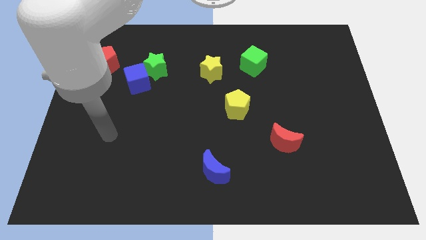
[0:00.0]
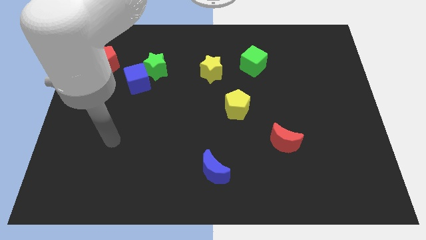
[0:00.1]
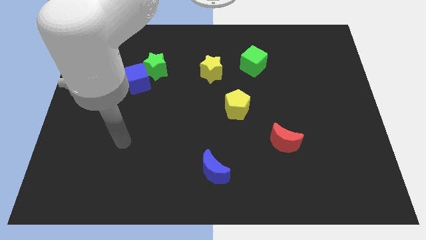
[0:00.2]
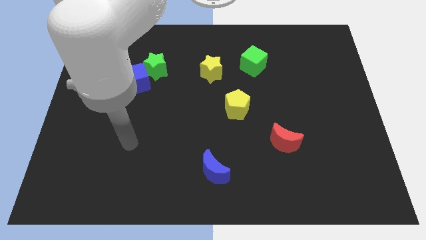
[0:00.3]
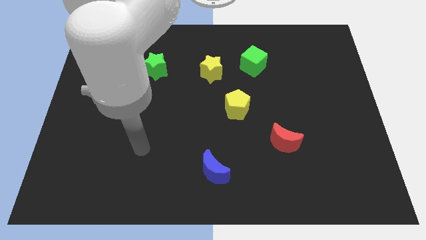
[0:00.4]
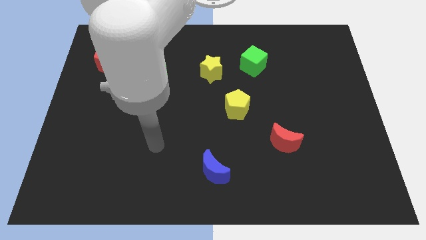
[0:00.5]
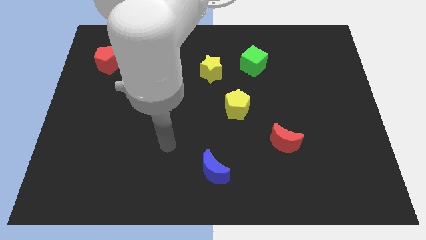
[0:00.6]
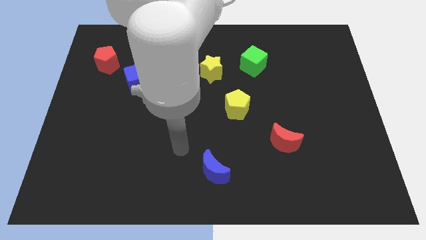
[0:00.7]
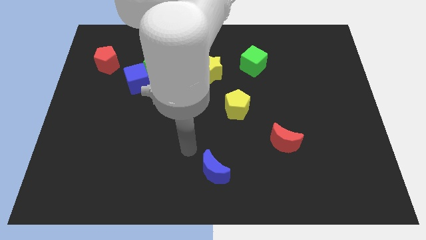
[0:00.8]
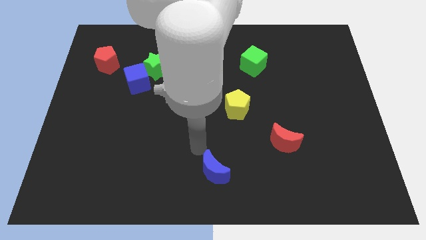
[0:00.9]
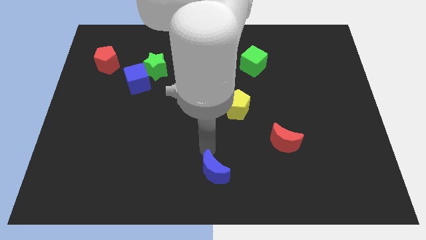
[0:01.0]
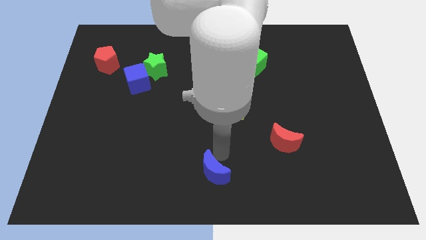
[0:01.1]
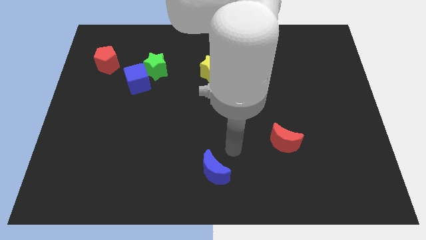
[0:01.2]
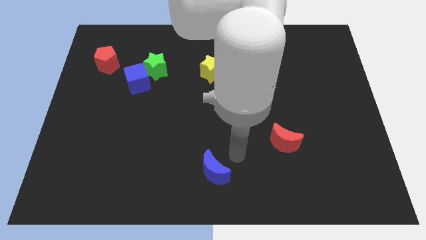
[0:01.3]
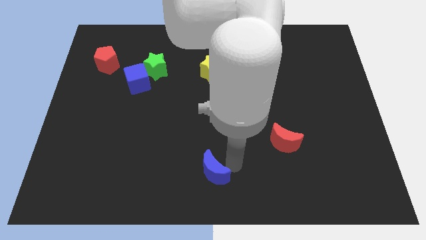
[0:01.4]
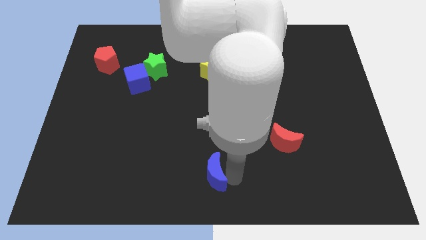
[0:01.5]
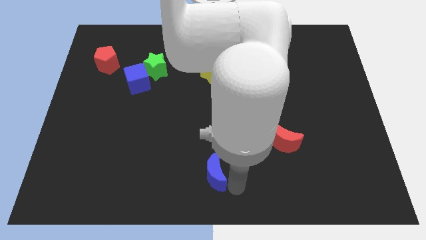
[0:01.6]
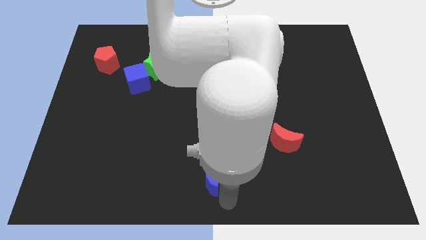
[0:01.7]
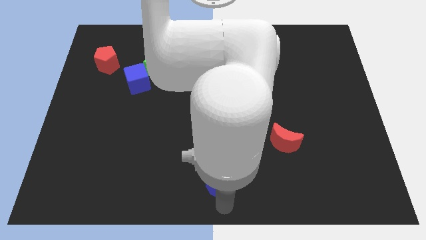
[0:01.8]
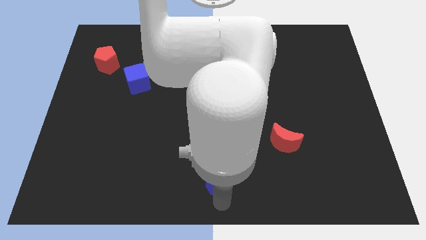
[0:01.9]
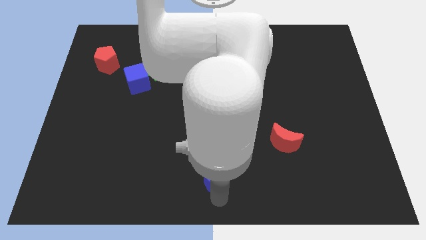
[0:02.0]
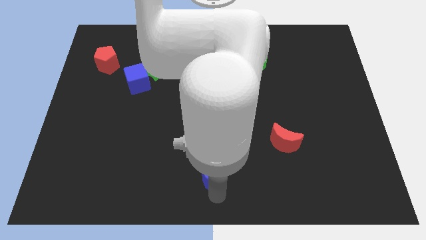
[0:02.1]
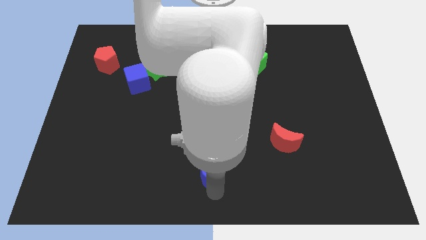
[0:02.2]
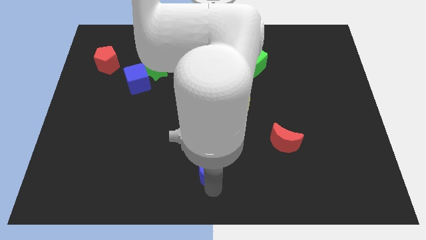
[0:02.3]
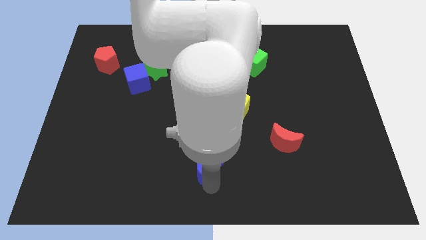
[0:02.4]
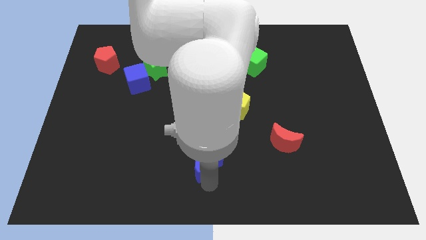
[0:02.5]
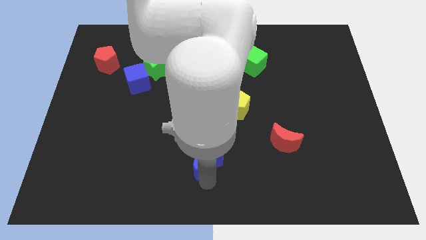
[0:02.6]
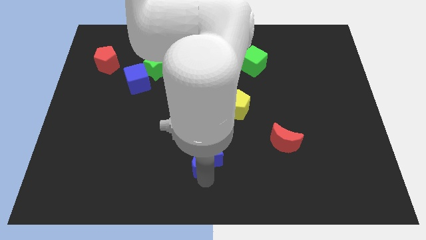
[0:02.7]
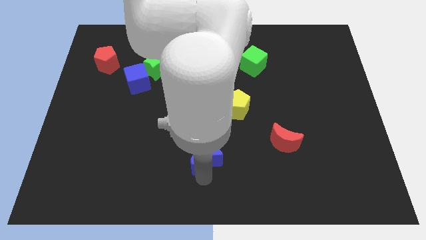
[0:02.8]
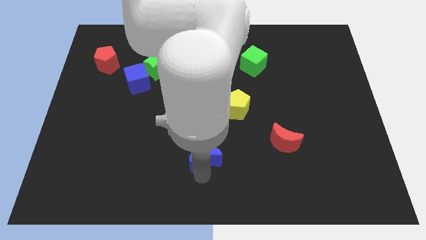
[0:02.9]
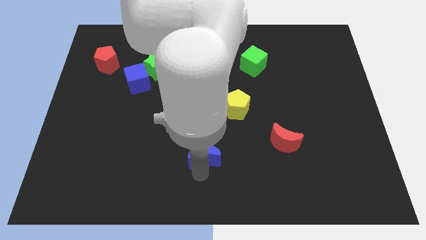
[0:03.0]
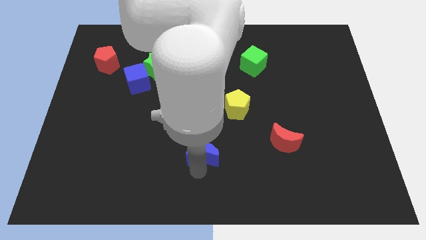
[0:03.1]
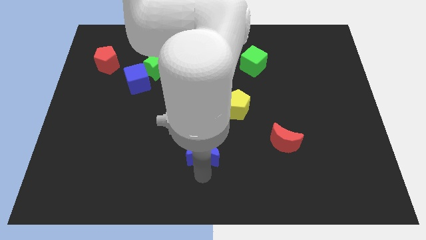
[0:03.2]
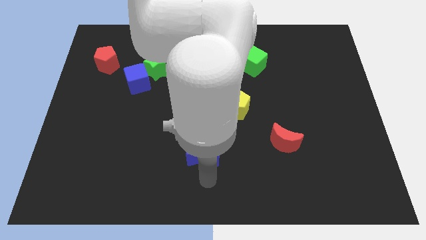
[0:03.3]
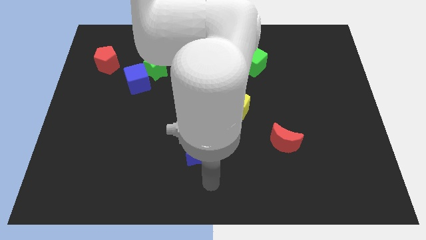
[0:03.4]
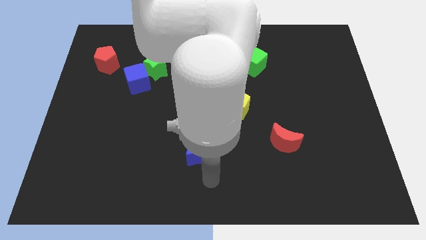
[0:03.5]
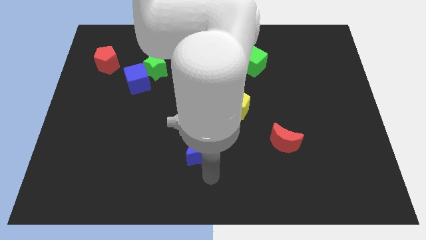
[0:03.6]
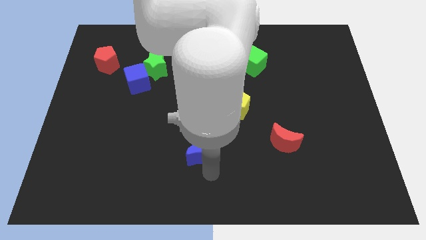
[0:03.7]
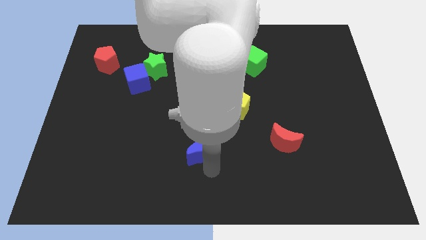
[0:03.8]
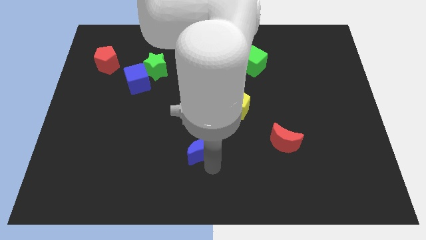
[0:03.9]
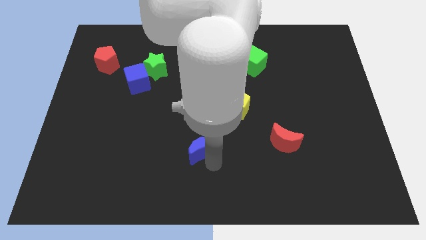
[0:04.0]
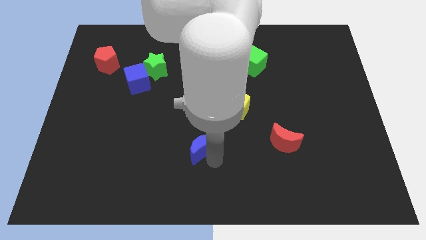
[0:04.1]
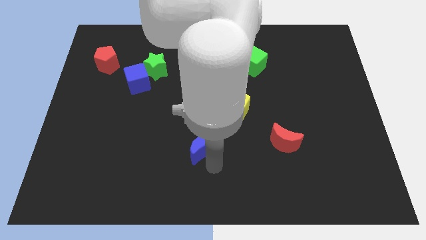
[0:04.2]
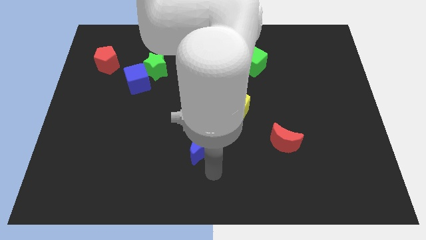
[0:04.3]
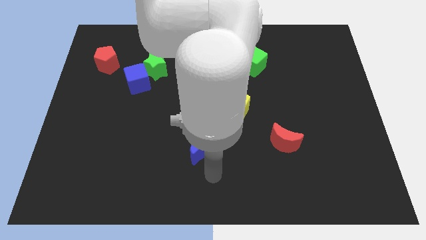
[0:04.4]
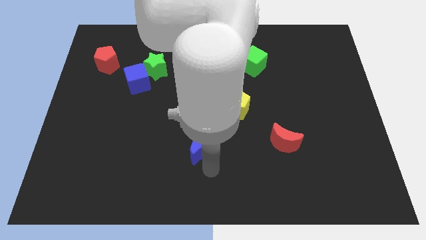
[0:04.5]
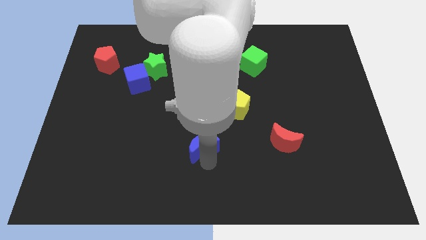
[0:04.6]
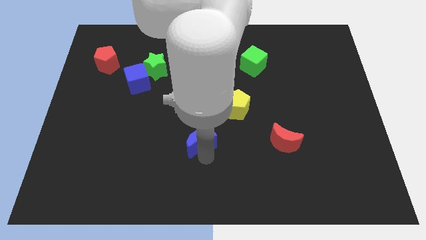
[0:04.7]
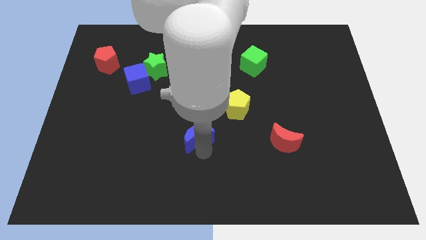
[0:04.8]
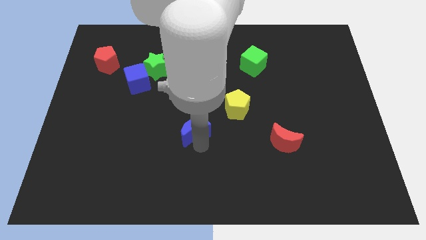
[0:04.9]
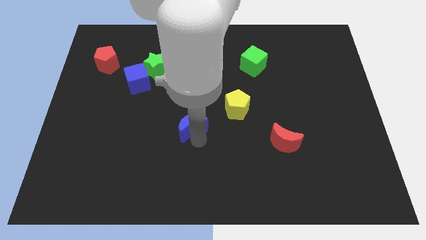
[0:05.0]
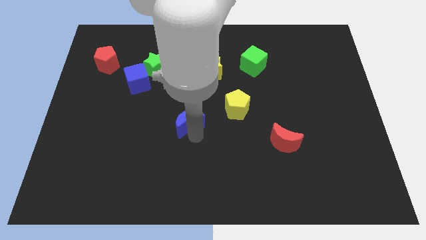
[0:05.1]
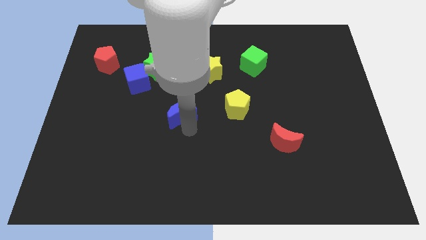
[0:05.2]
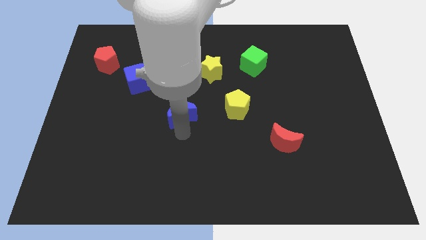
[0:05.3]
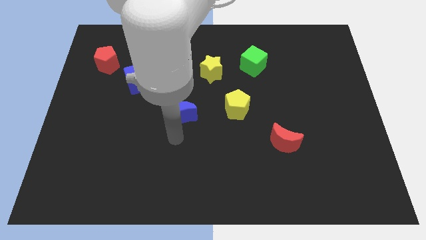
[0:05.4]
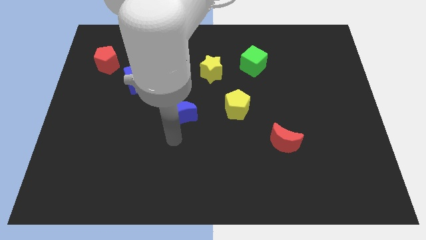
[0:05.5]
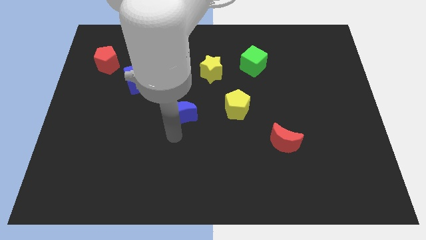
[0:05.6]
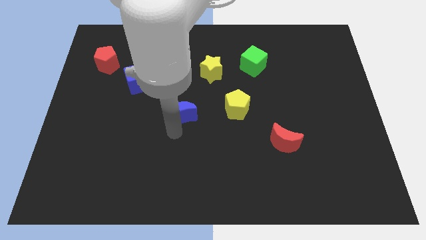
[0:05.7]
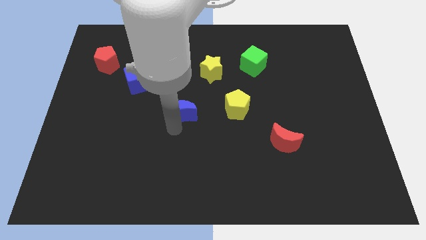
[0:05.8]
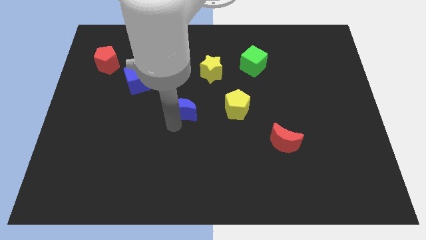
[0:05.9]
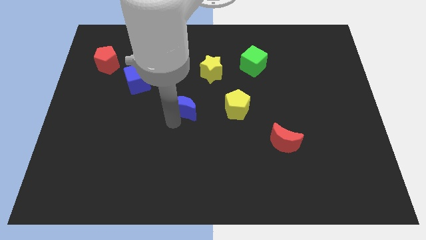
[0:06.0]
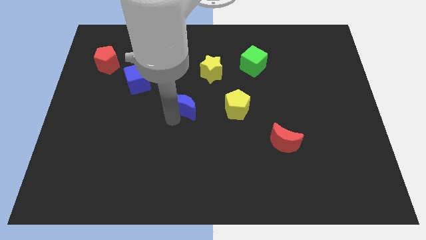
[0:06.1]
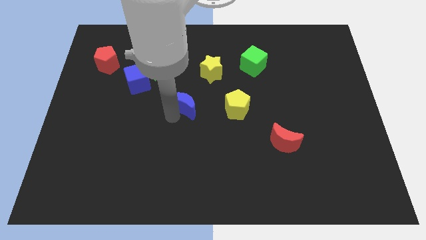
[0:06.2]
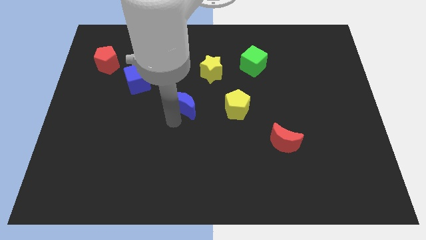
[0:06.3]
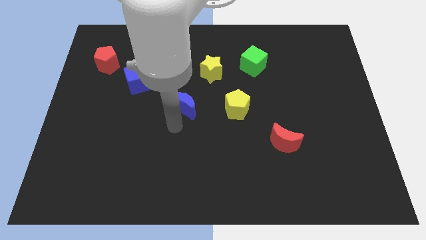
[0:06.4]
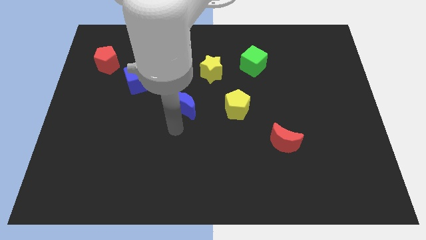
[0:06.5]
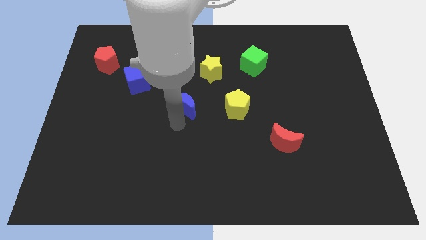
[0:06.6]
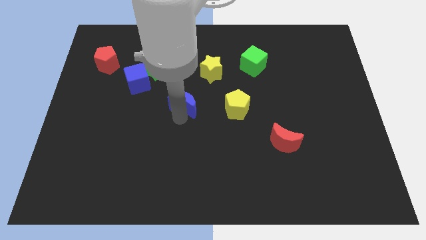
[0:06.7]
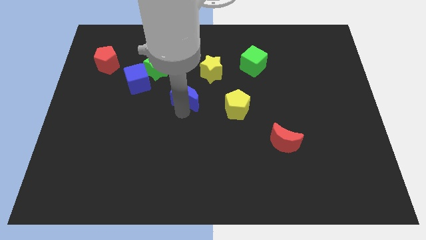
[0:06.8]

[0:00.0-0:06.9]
put the blue moon to the bottom left side of the yellow star

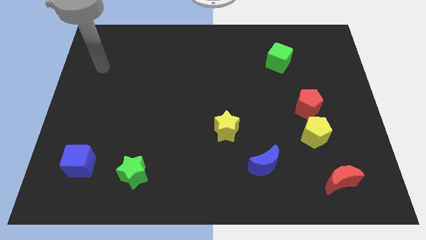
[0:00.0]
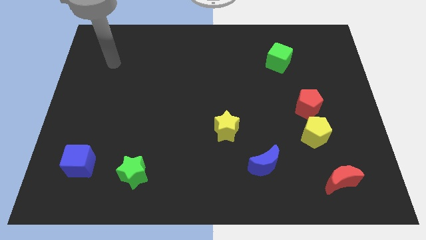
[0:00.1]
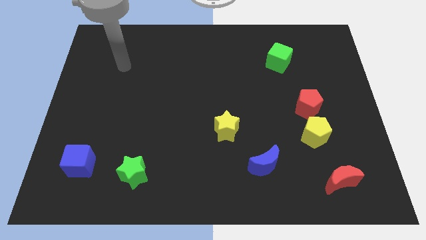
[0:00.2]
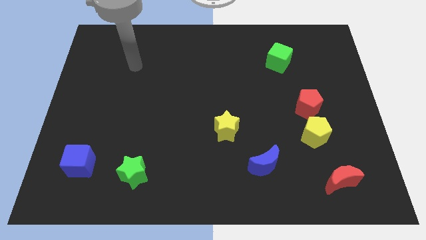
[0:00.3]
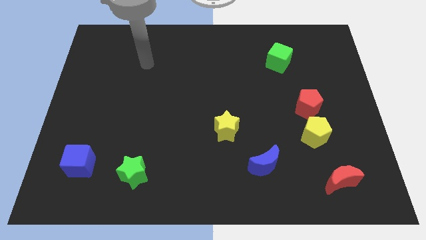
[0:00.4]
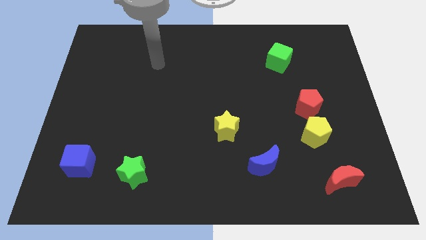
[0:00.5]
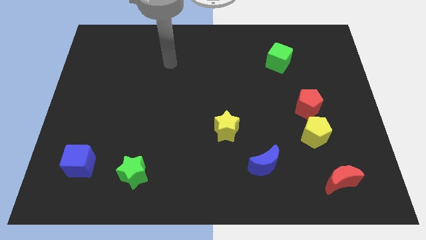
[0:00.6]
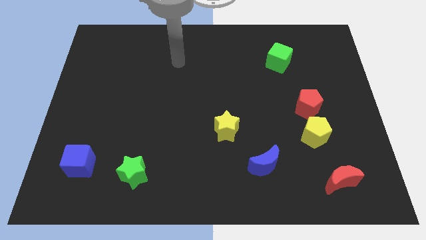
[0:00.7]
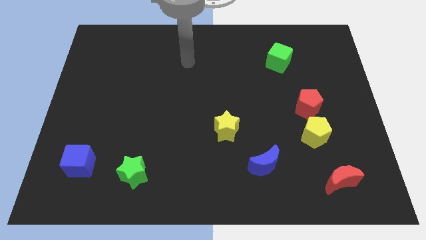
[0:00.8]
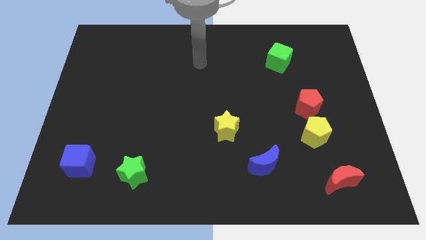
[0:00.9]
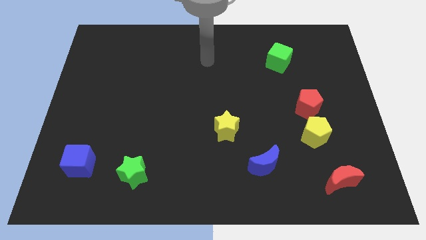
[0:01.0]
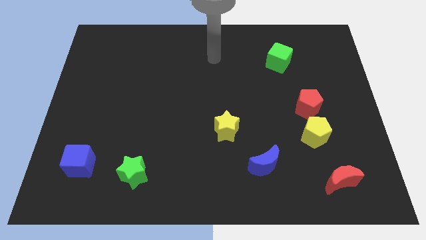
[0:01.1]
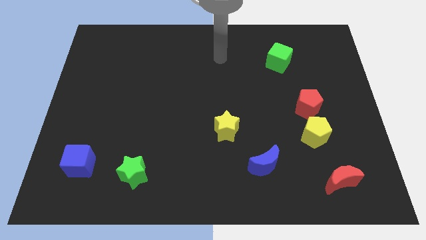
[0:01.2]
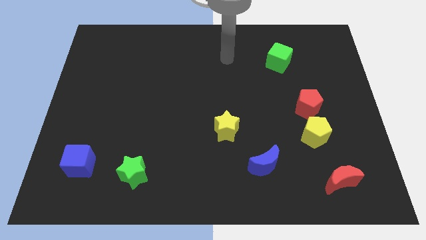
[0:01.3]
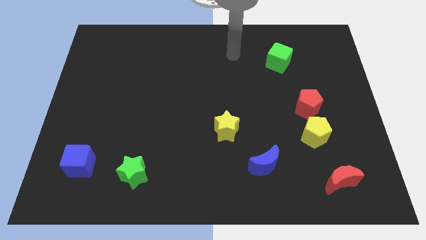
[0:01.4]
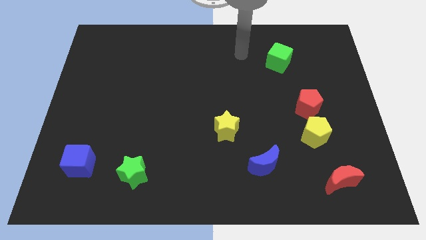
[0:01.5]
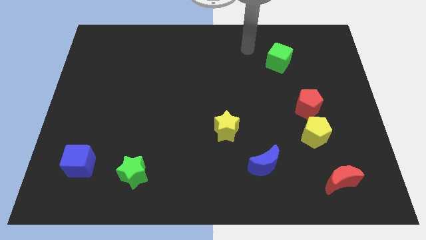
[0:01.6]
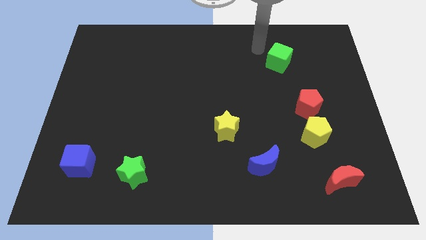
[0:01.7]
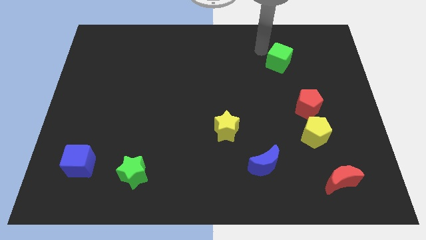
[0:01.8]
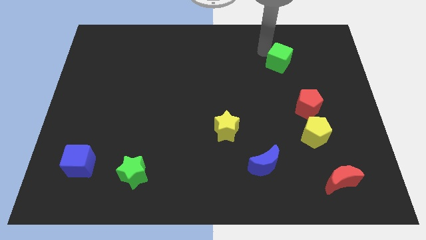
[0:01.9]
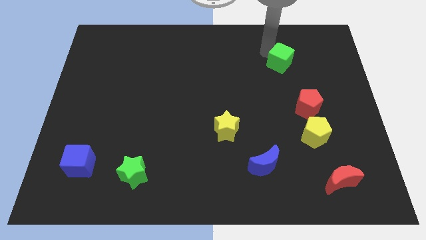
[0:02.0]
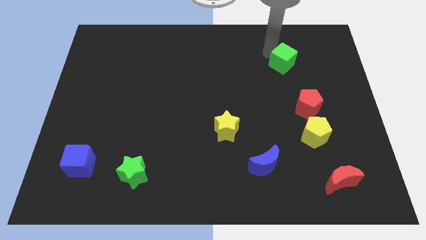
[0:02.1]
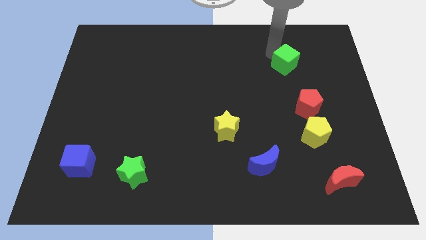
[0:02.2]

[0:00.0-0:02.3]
slide the green cube to the top of the red pentagon
